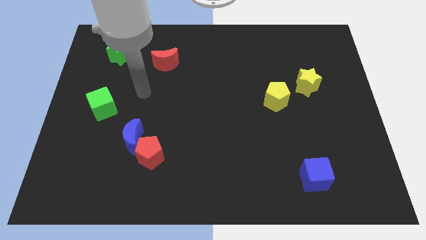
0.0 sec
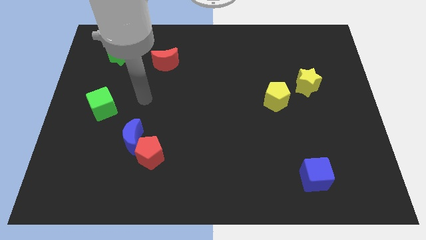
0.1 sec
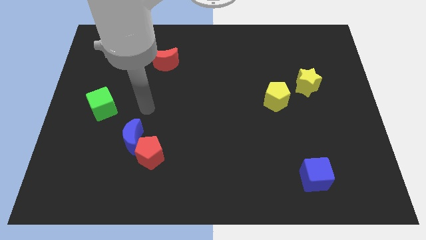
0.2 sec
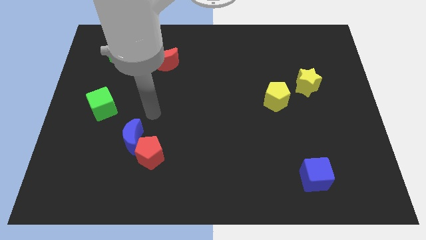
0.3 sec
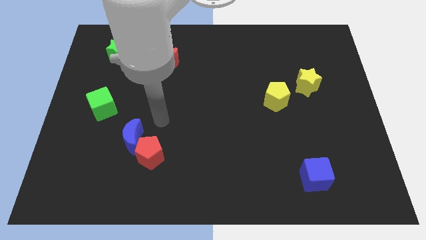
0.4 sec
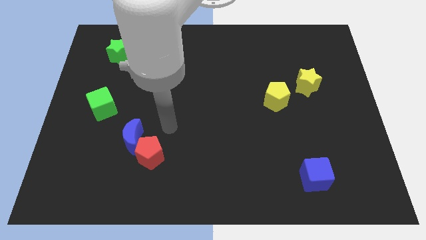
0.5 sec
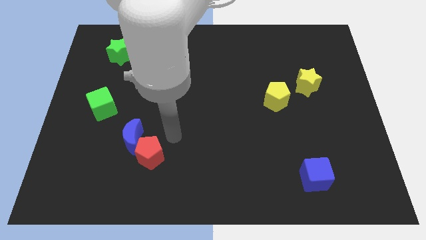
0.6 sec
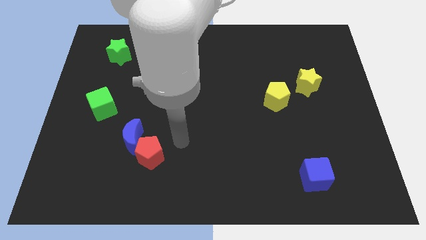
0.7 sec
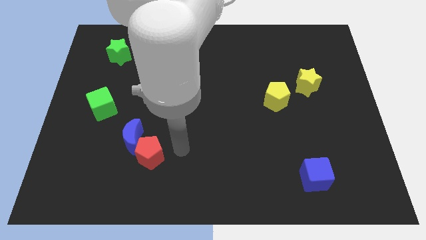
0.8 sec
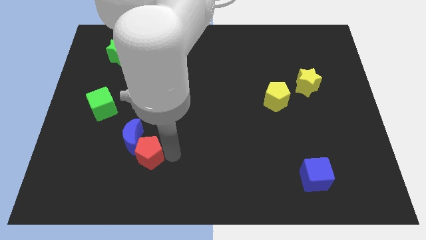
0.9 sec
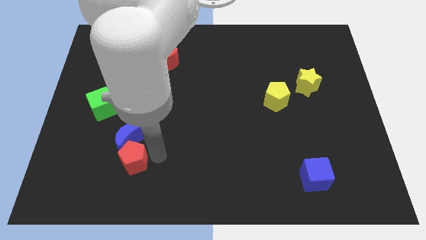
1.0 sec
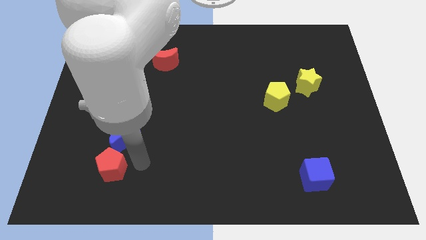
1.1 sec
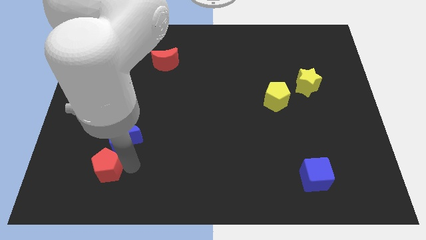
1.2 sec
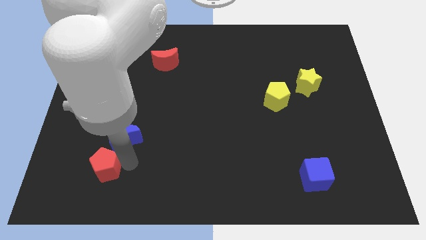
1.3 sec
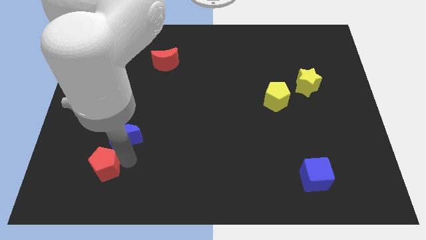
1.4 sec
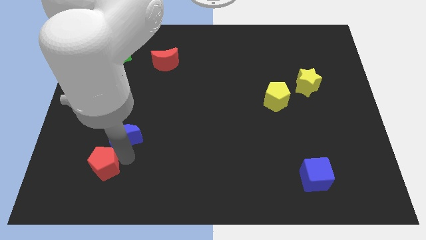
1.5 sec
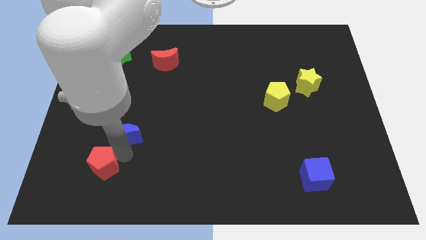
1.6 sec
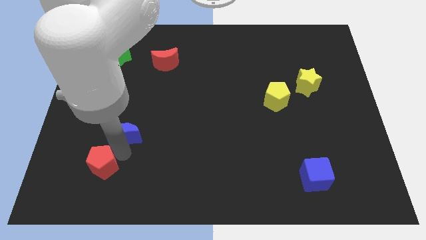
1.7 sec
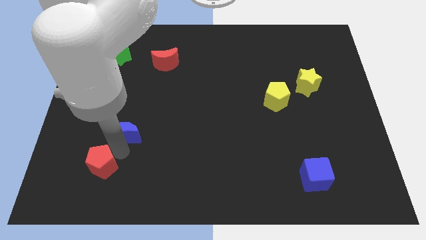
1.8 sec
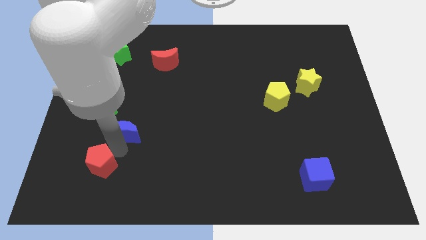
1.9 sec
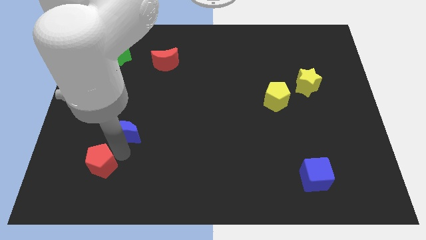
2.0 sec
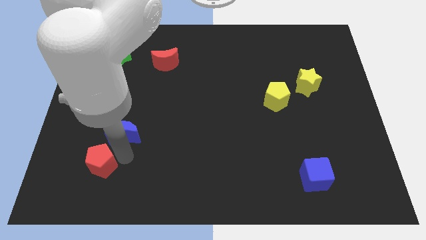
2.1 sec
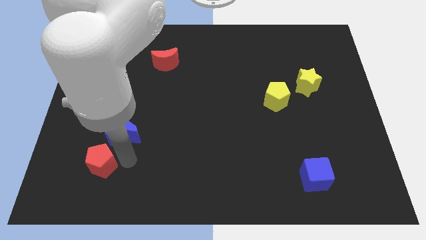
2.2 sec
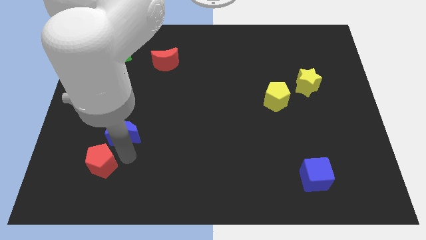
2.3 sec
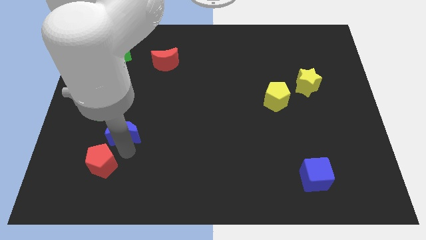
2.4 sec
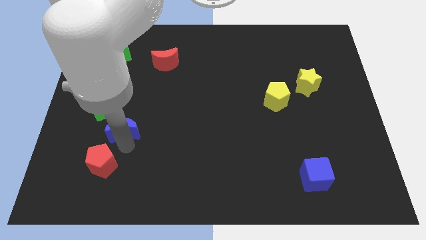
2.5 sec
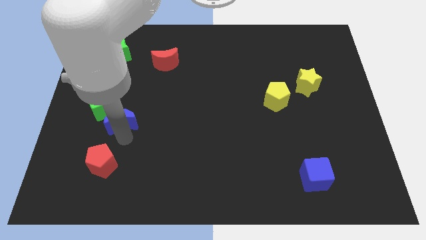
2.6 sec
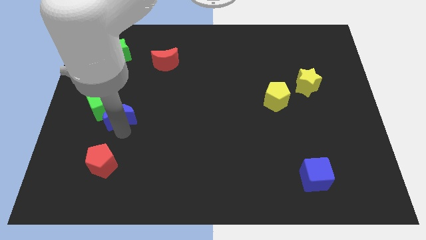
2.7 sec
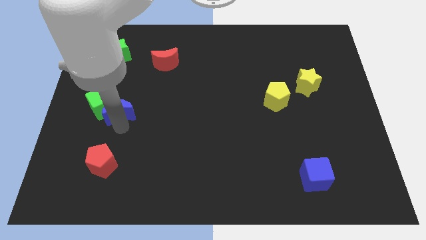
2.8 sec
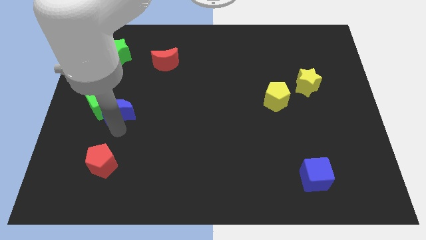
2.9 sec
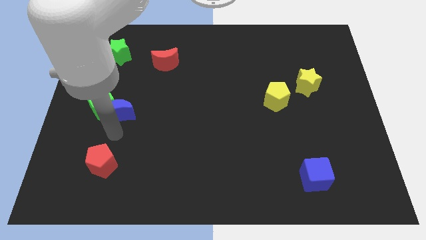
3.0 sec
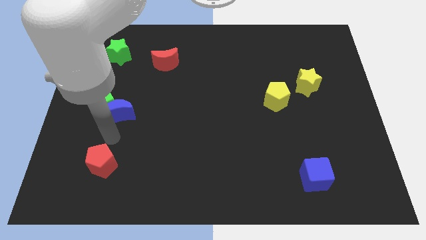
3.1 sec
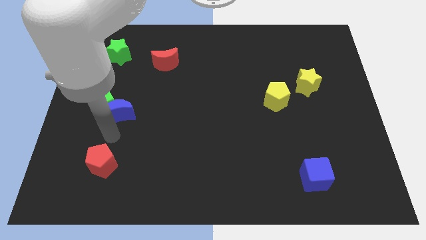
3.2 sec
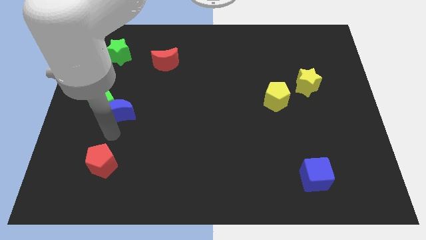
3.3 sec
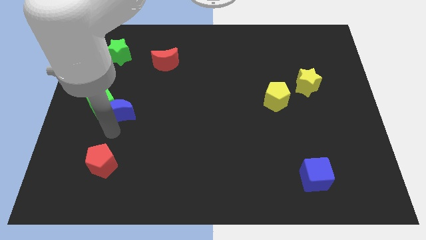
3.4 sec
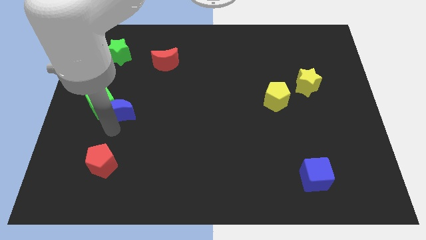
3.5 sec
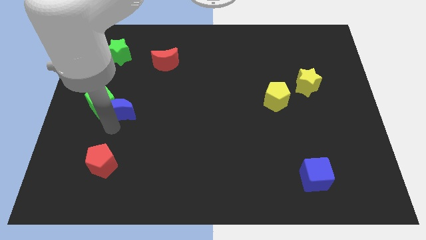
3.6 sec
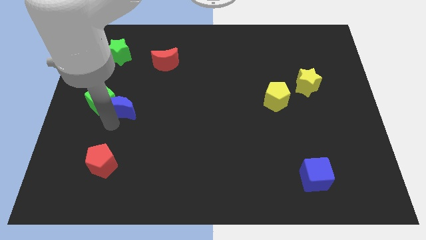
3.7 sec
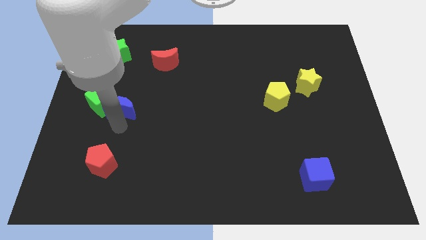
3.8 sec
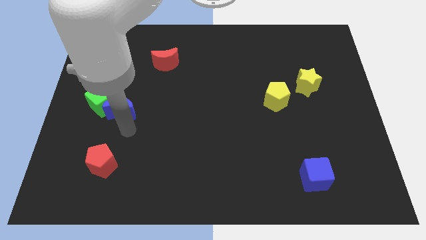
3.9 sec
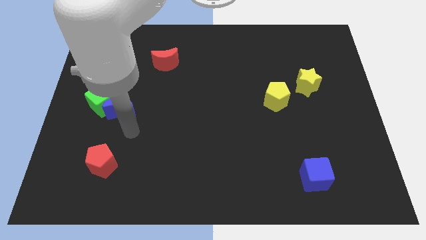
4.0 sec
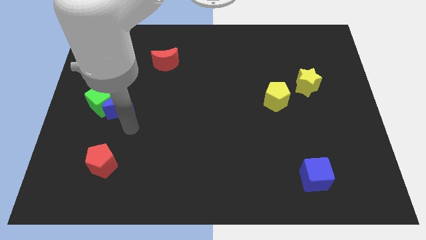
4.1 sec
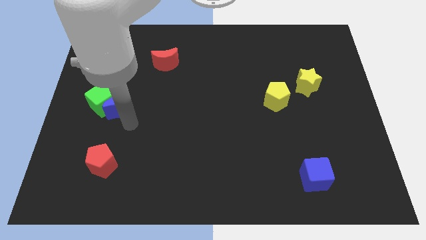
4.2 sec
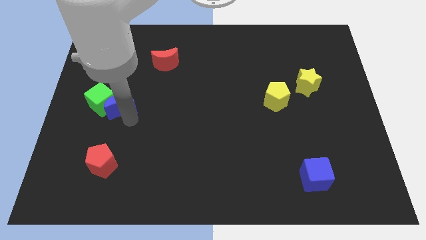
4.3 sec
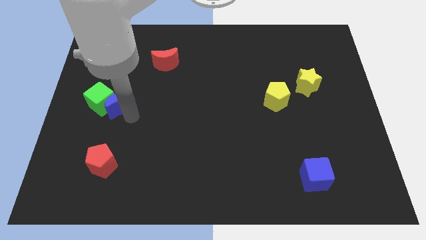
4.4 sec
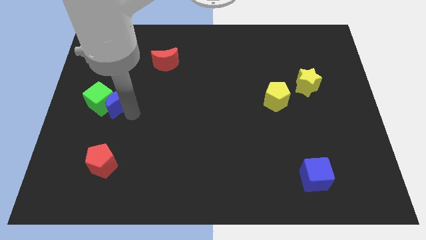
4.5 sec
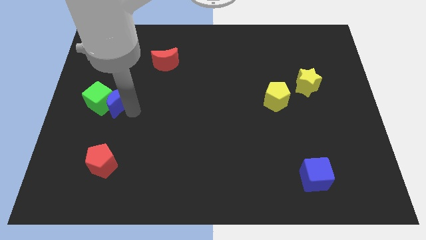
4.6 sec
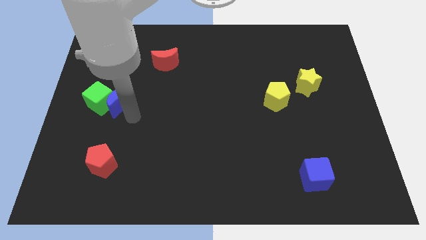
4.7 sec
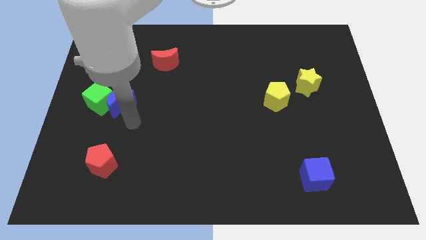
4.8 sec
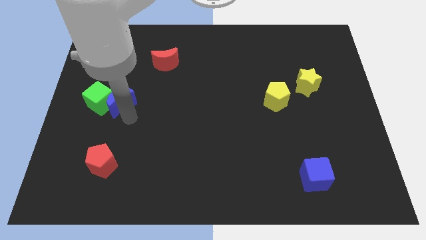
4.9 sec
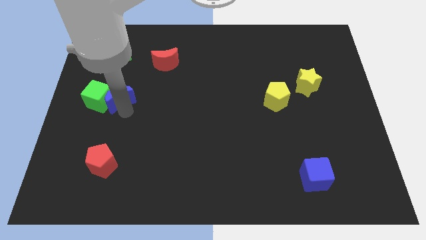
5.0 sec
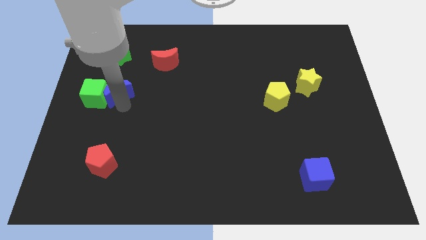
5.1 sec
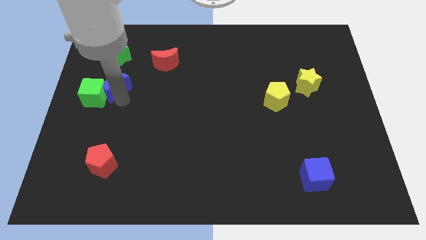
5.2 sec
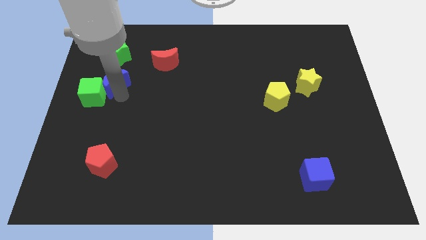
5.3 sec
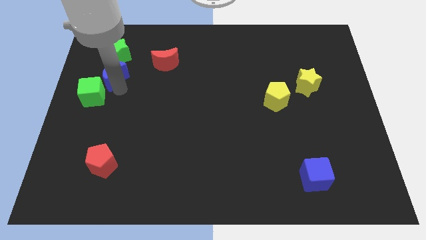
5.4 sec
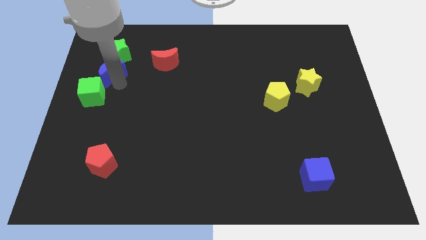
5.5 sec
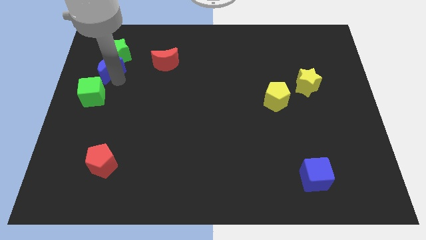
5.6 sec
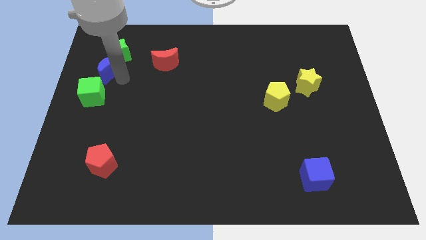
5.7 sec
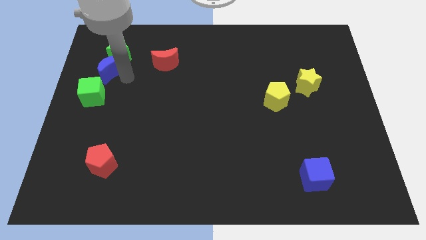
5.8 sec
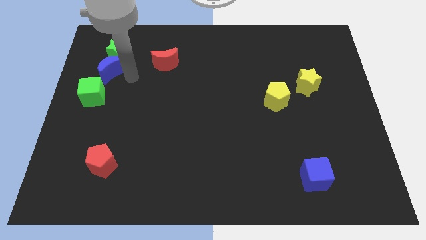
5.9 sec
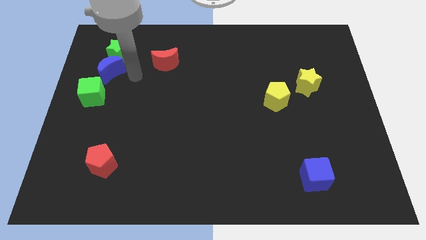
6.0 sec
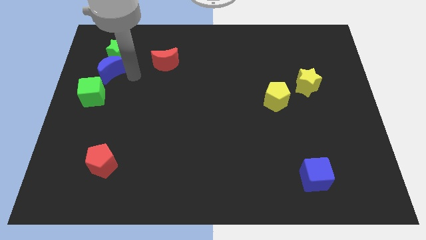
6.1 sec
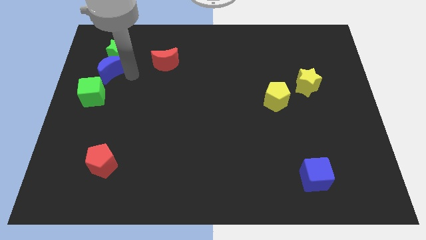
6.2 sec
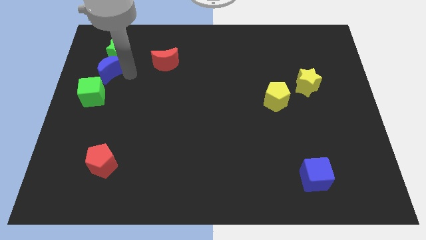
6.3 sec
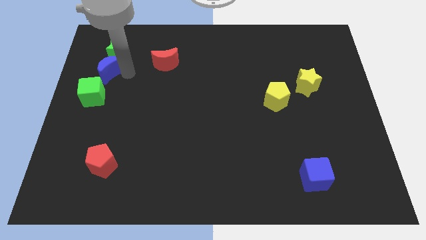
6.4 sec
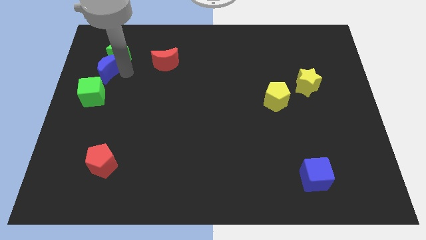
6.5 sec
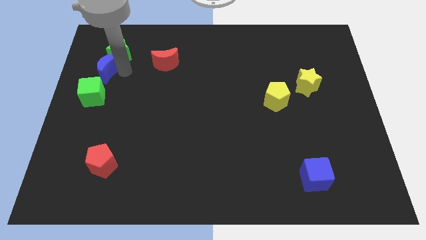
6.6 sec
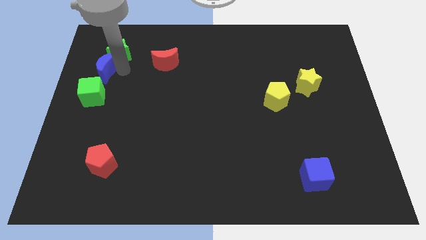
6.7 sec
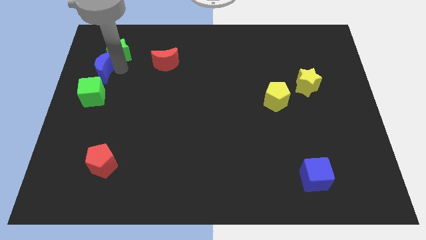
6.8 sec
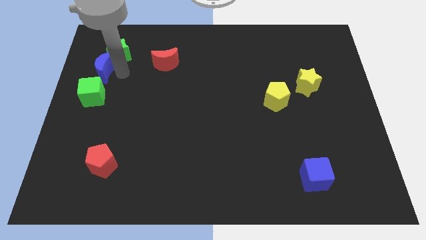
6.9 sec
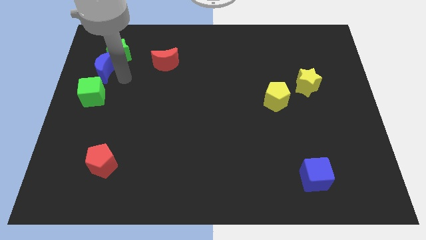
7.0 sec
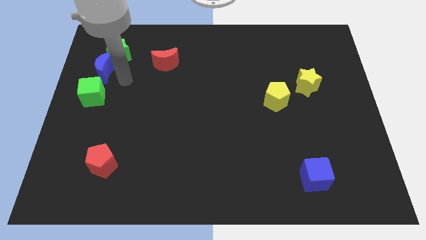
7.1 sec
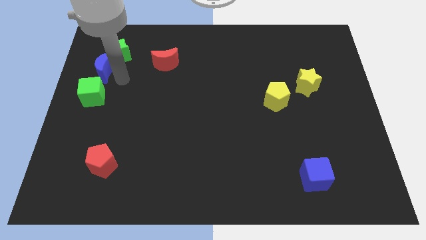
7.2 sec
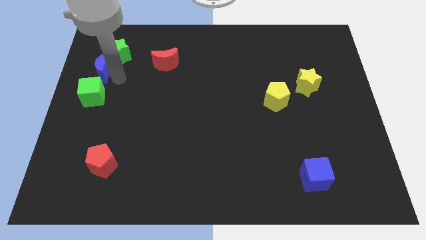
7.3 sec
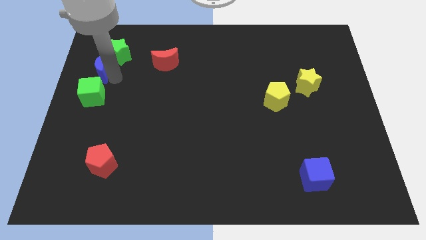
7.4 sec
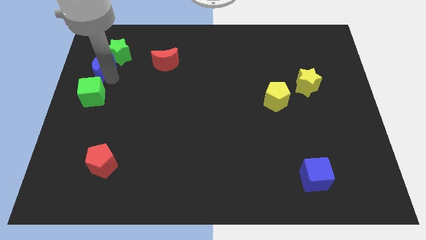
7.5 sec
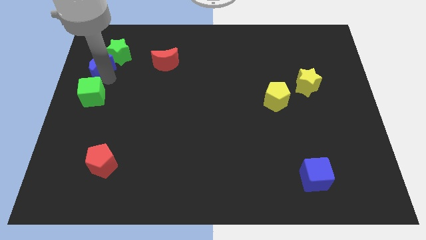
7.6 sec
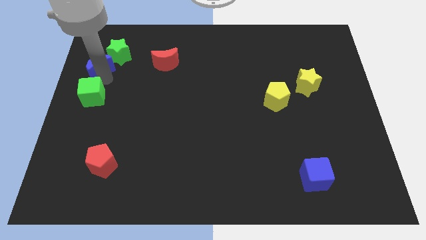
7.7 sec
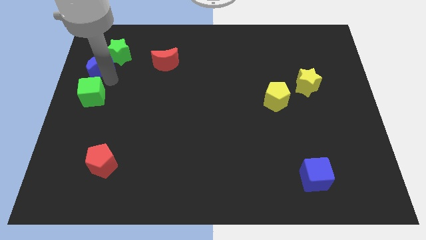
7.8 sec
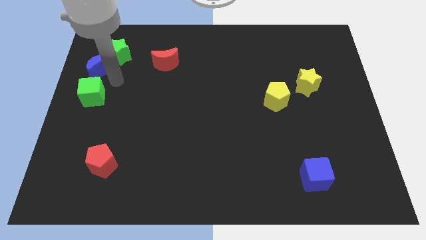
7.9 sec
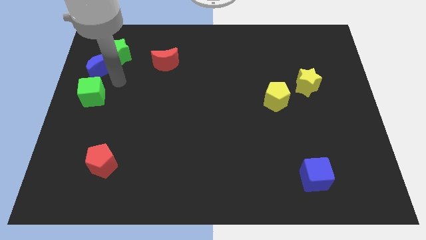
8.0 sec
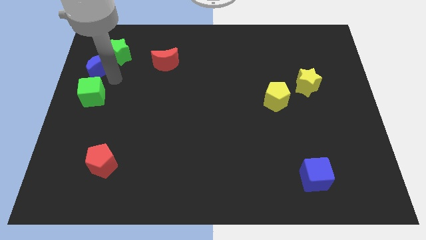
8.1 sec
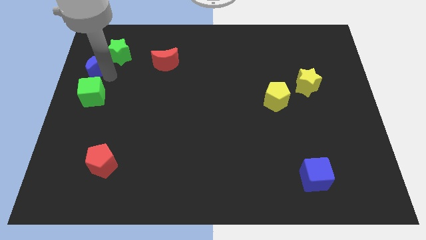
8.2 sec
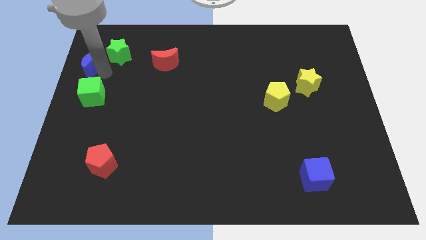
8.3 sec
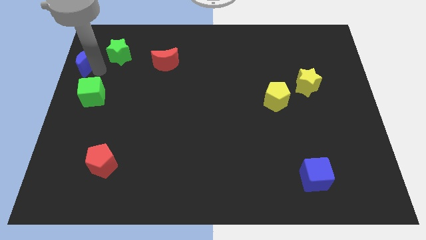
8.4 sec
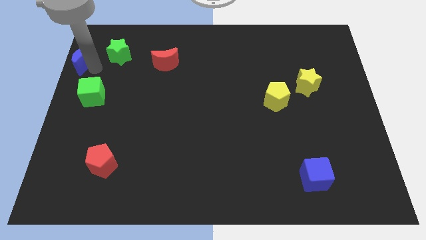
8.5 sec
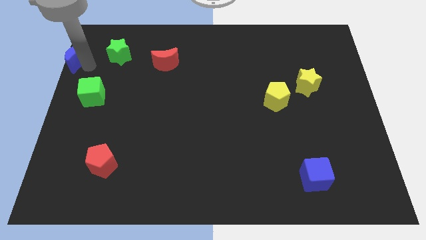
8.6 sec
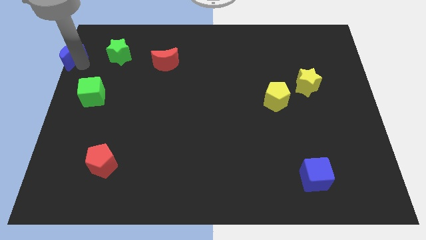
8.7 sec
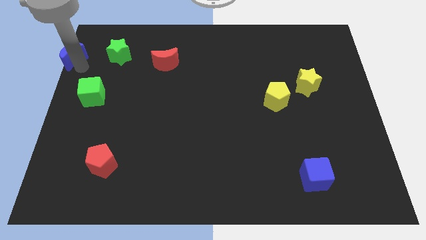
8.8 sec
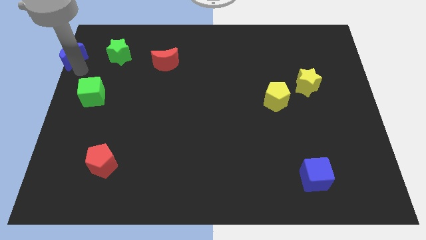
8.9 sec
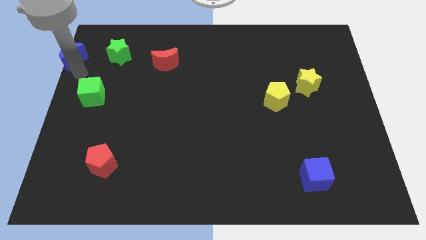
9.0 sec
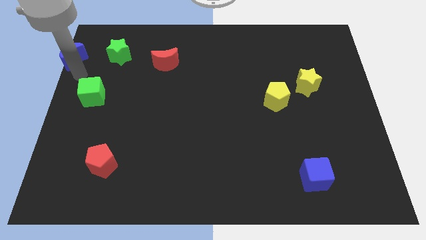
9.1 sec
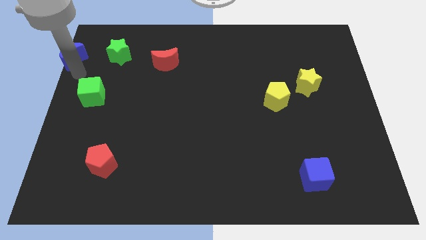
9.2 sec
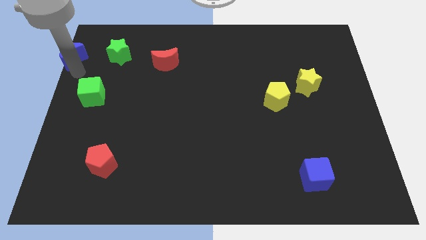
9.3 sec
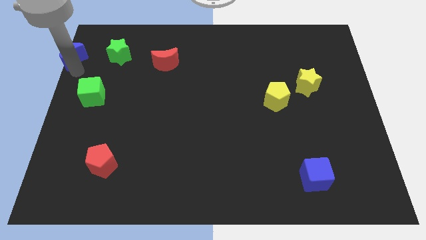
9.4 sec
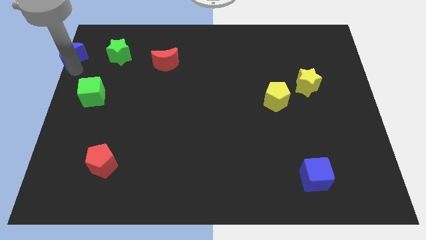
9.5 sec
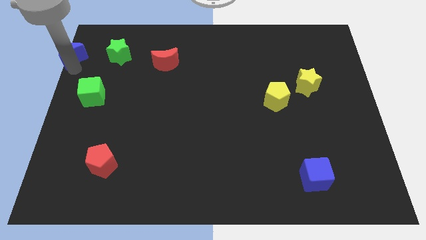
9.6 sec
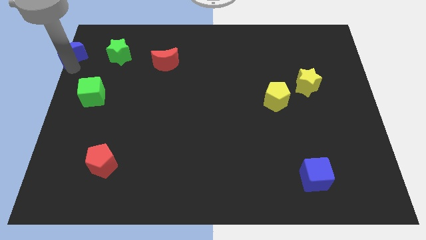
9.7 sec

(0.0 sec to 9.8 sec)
push the blue moon to the top left corner
